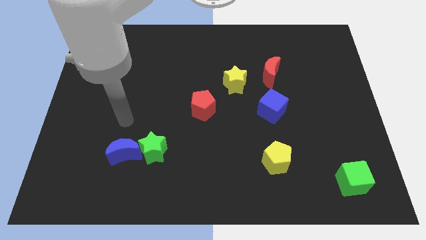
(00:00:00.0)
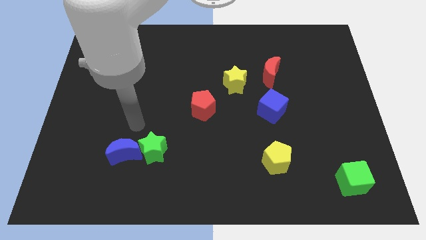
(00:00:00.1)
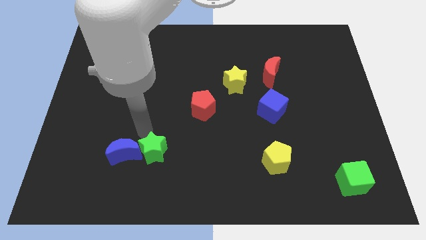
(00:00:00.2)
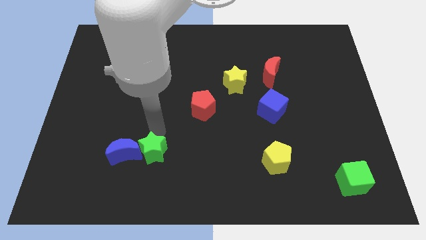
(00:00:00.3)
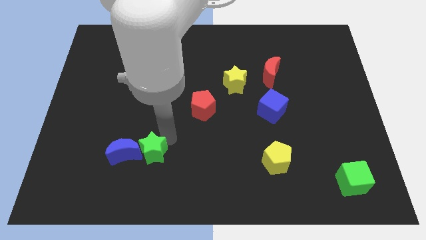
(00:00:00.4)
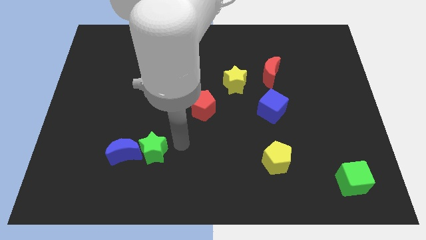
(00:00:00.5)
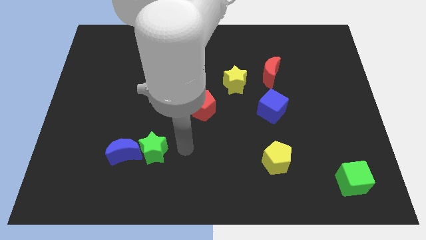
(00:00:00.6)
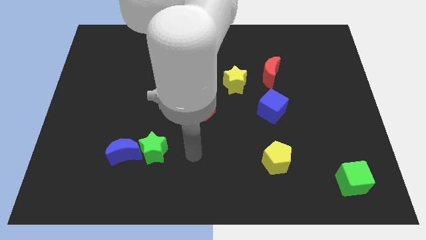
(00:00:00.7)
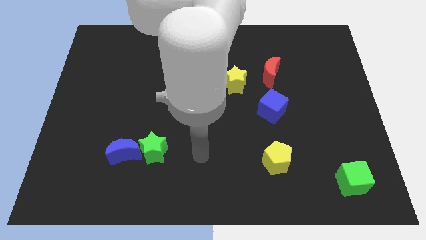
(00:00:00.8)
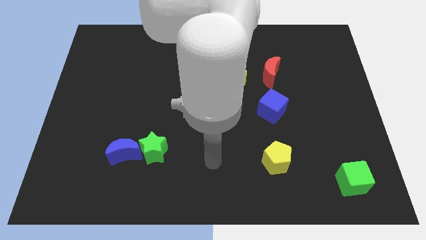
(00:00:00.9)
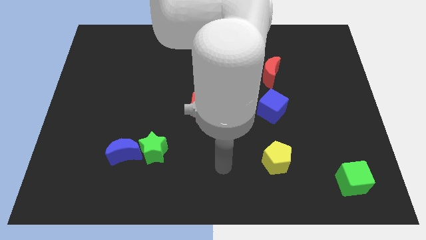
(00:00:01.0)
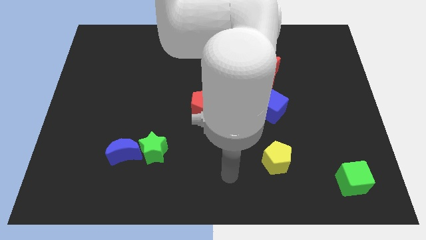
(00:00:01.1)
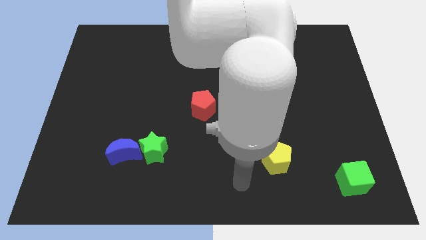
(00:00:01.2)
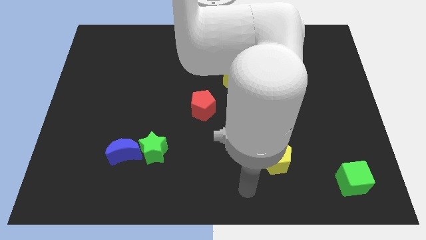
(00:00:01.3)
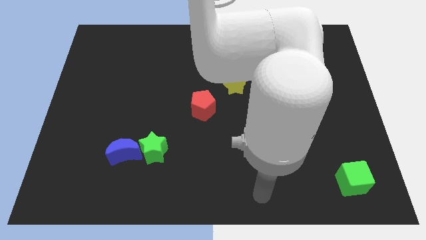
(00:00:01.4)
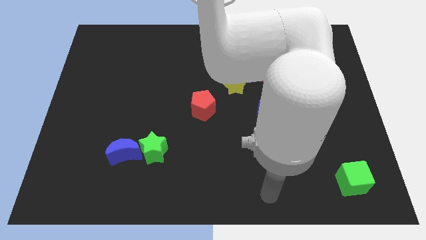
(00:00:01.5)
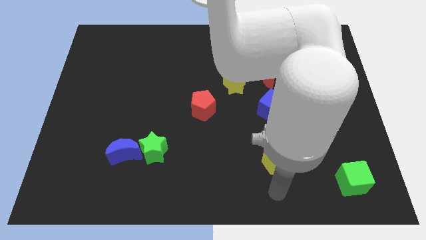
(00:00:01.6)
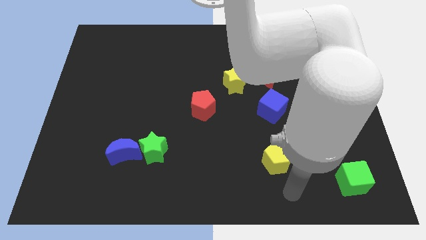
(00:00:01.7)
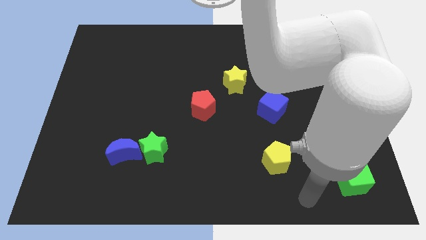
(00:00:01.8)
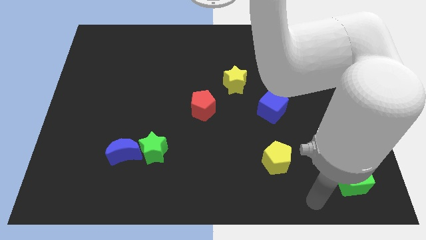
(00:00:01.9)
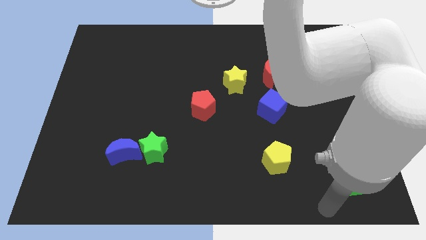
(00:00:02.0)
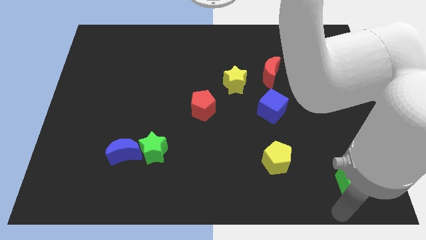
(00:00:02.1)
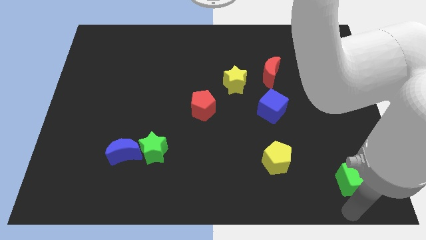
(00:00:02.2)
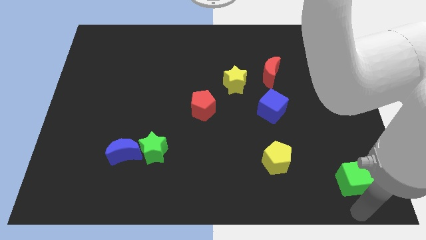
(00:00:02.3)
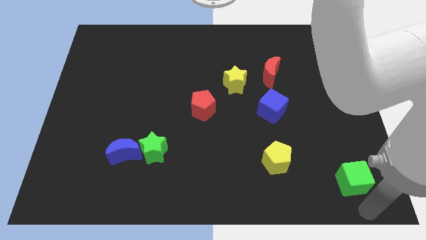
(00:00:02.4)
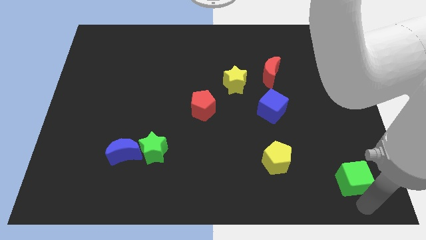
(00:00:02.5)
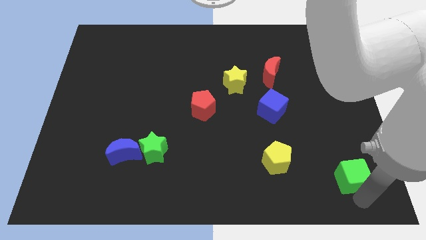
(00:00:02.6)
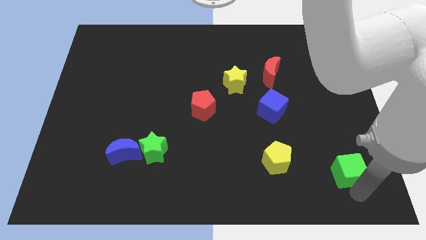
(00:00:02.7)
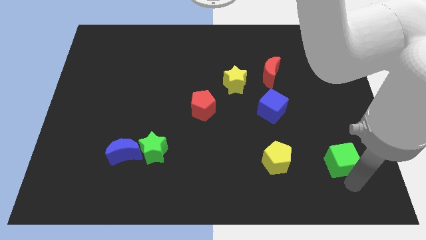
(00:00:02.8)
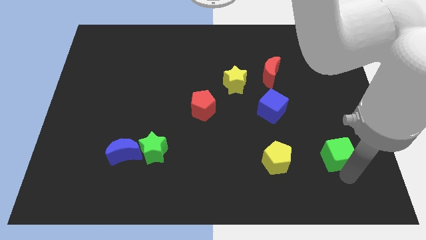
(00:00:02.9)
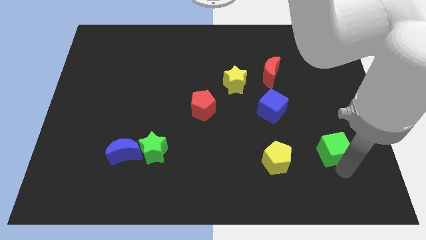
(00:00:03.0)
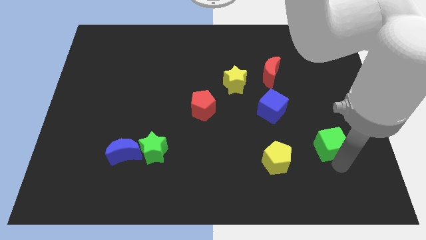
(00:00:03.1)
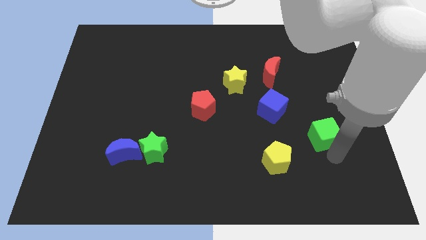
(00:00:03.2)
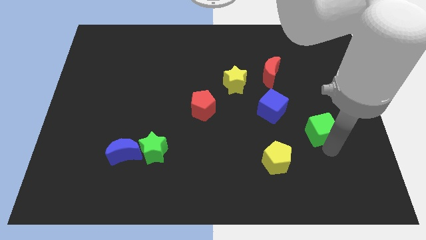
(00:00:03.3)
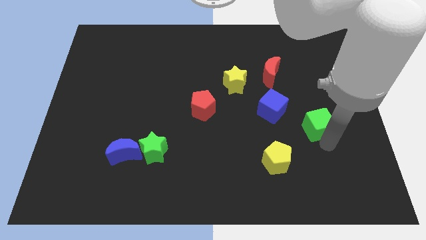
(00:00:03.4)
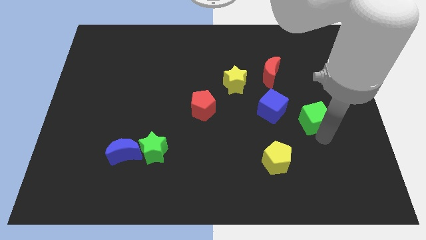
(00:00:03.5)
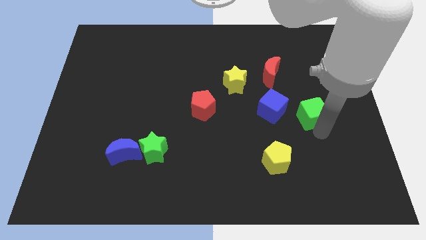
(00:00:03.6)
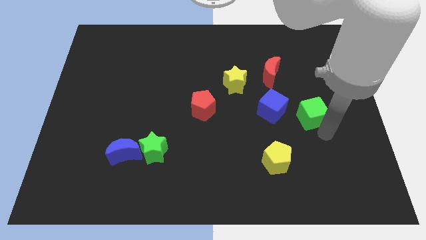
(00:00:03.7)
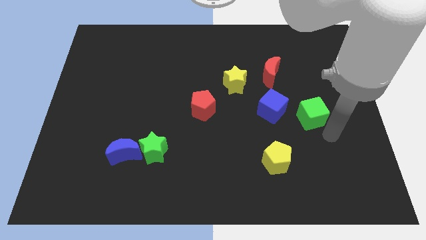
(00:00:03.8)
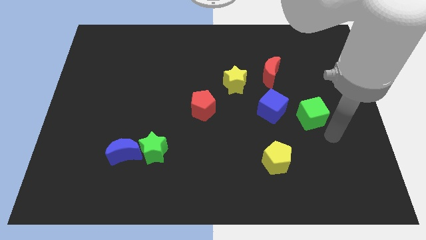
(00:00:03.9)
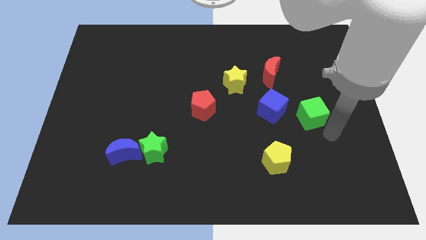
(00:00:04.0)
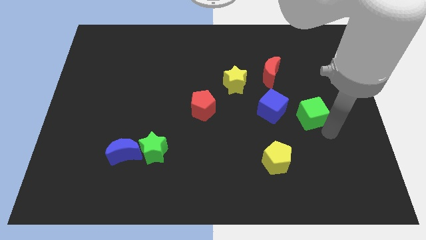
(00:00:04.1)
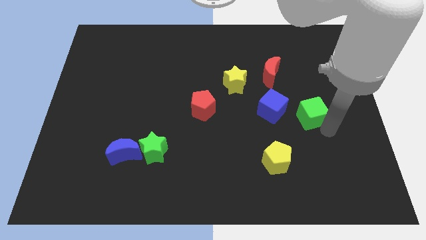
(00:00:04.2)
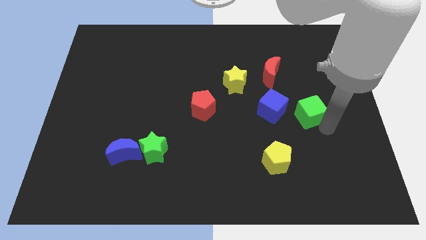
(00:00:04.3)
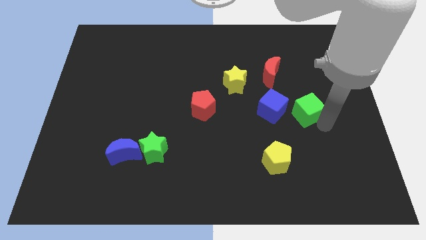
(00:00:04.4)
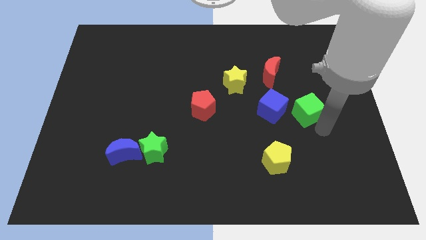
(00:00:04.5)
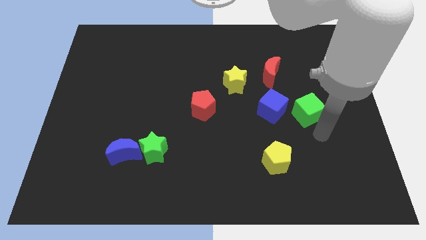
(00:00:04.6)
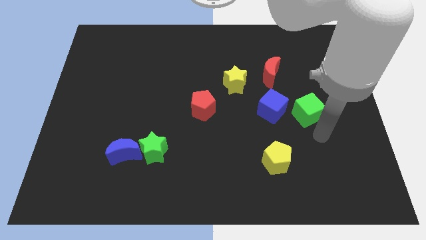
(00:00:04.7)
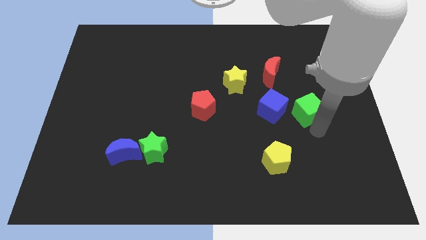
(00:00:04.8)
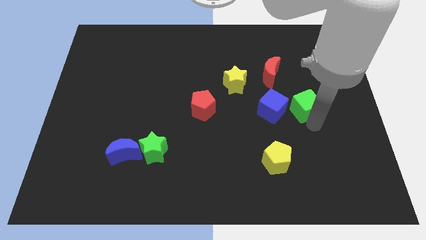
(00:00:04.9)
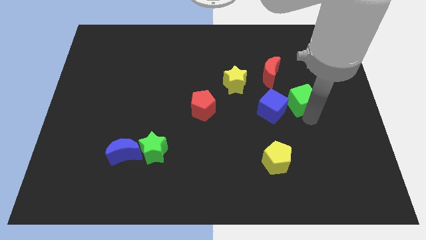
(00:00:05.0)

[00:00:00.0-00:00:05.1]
push the green cube diagonally down and to the right of the red moon

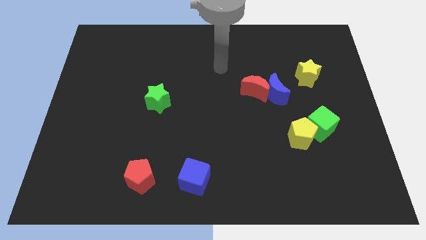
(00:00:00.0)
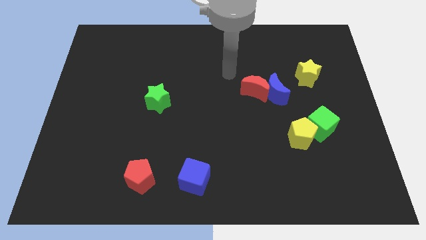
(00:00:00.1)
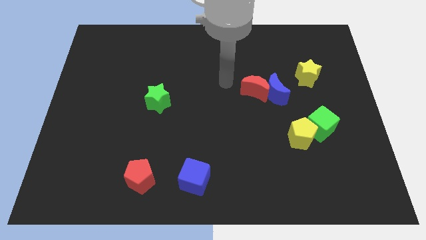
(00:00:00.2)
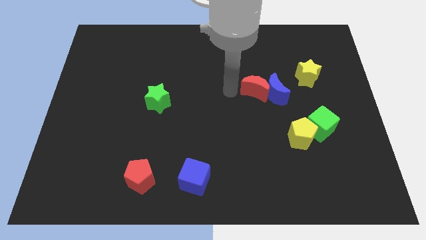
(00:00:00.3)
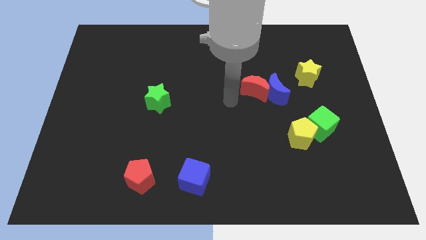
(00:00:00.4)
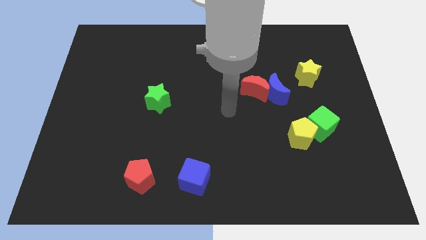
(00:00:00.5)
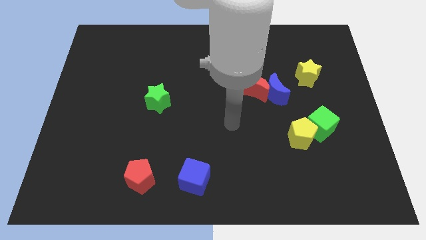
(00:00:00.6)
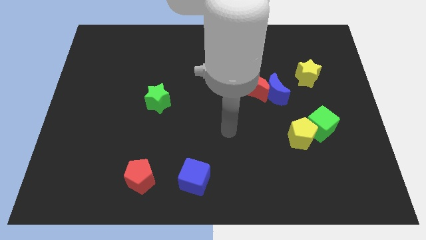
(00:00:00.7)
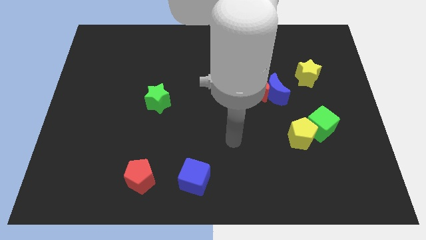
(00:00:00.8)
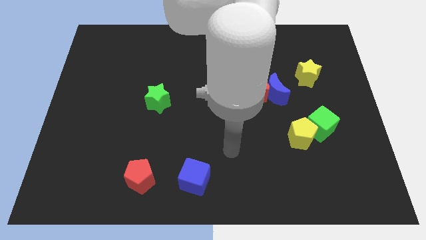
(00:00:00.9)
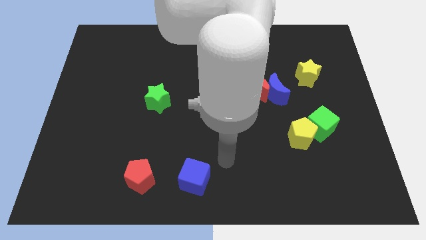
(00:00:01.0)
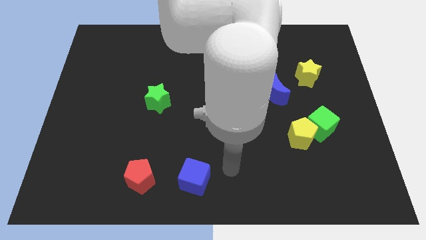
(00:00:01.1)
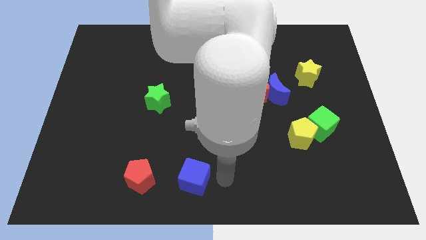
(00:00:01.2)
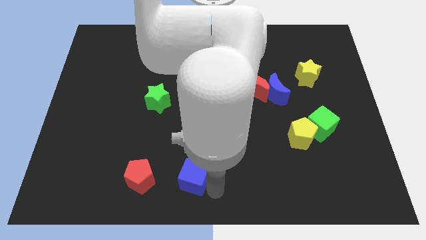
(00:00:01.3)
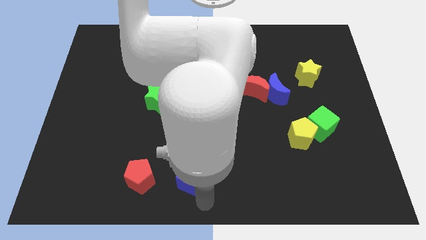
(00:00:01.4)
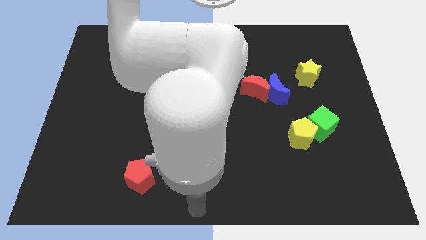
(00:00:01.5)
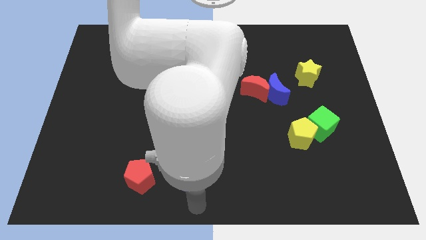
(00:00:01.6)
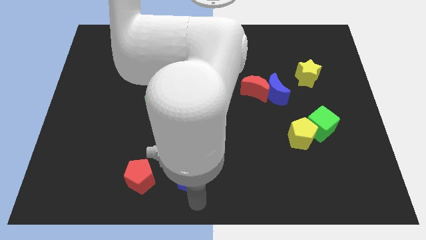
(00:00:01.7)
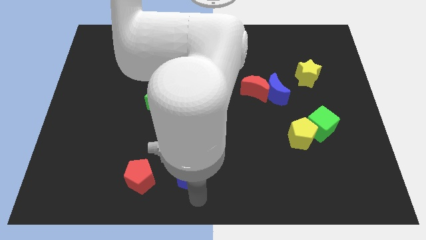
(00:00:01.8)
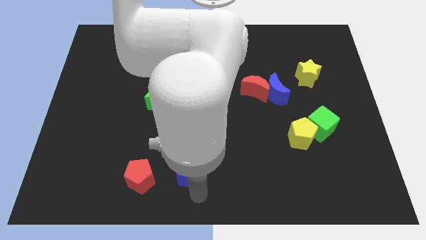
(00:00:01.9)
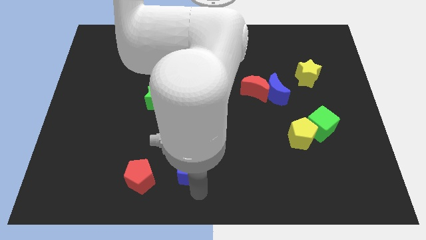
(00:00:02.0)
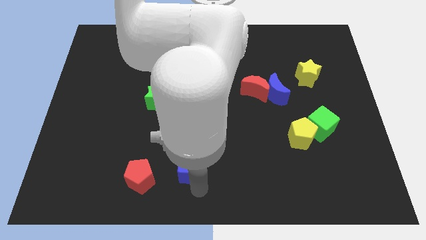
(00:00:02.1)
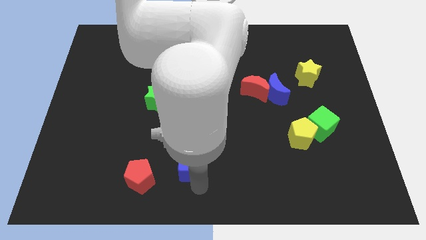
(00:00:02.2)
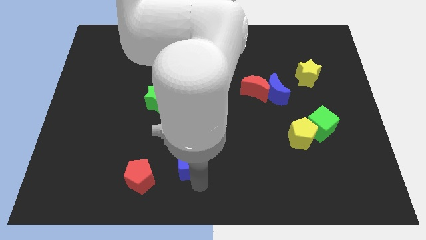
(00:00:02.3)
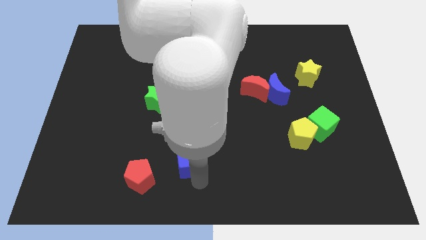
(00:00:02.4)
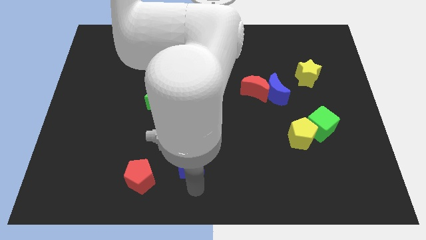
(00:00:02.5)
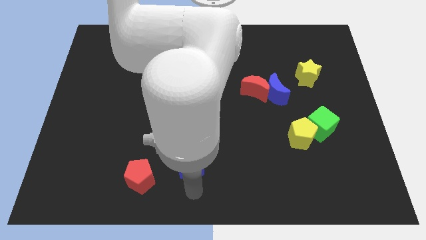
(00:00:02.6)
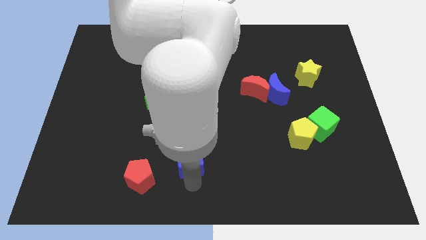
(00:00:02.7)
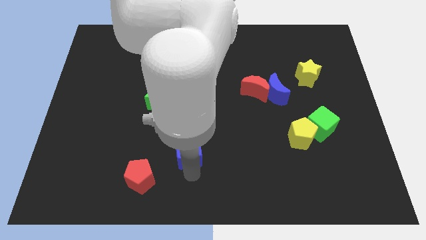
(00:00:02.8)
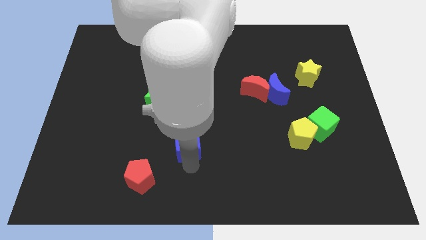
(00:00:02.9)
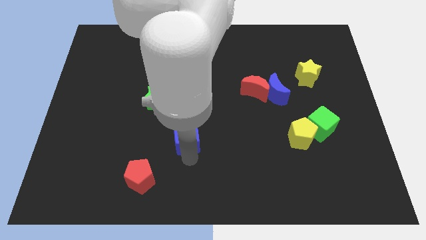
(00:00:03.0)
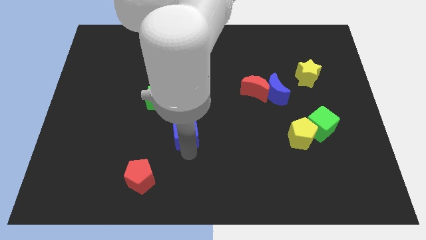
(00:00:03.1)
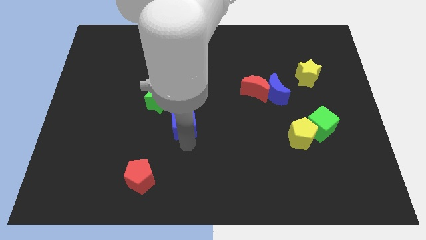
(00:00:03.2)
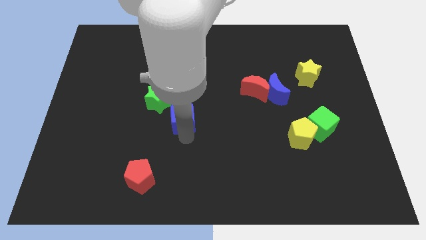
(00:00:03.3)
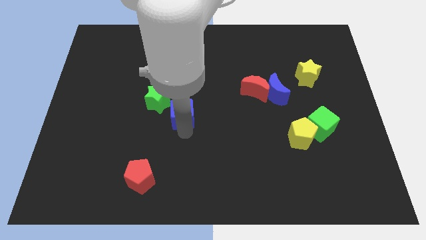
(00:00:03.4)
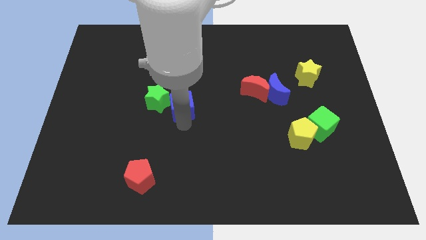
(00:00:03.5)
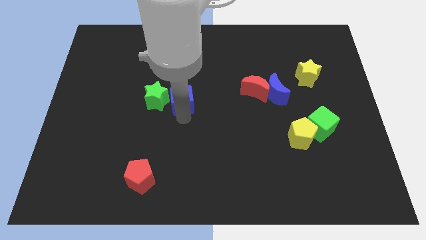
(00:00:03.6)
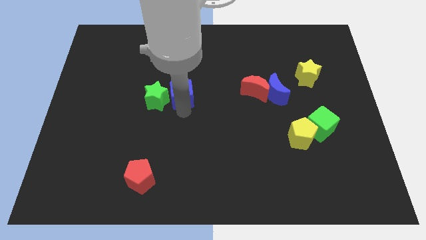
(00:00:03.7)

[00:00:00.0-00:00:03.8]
put the blue cube to the top right side of the green star
